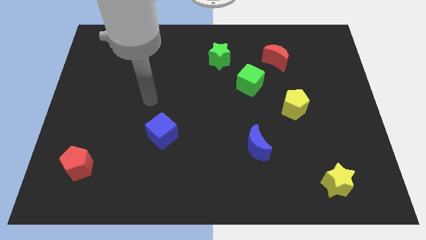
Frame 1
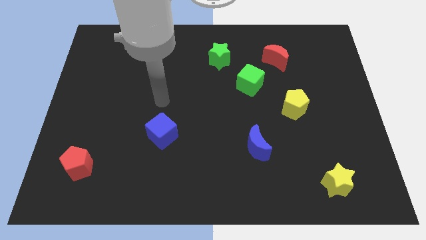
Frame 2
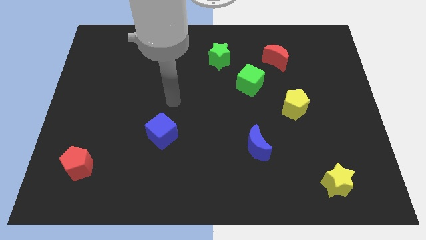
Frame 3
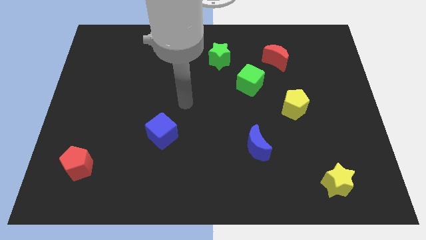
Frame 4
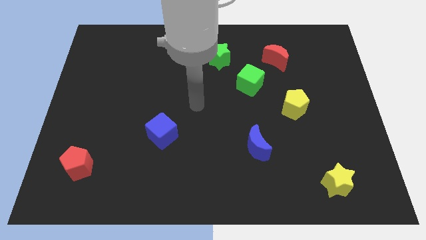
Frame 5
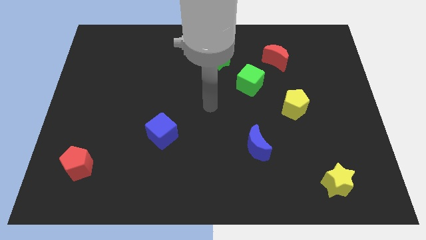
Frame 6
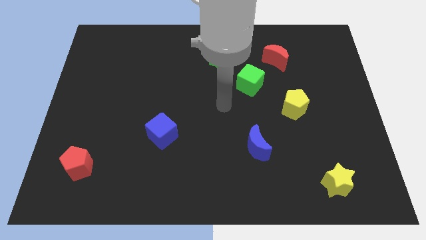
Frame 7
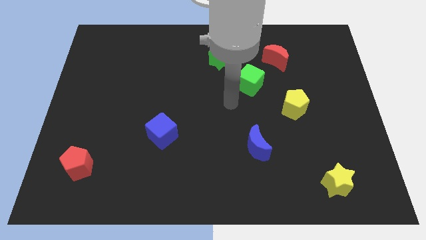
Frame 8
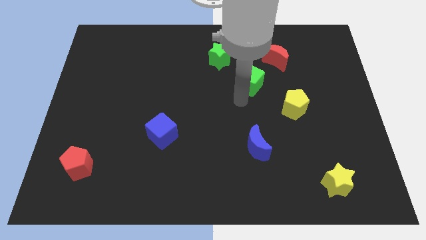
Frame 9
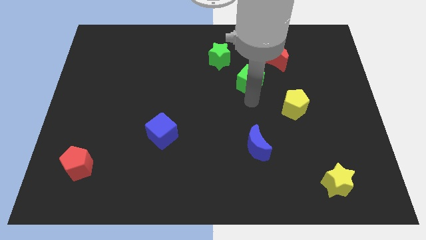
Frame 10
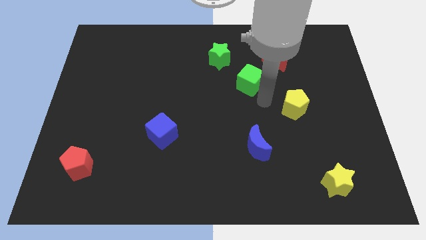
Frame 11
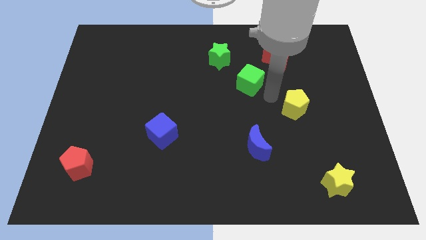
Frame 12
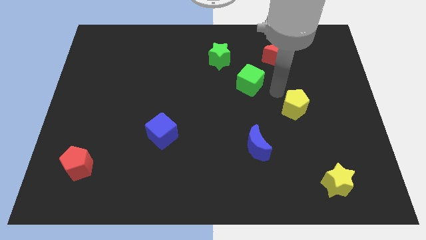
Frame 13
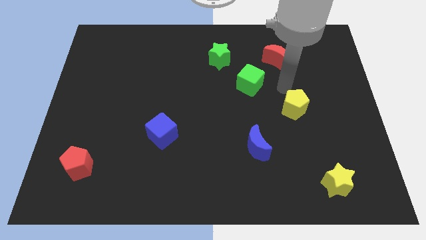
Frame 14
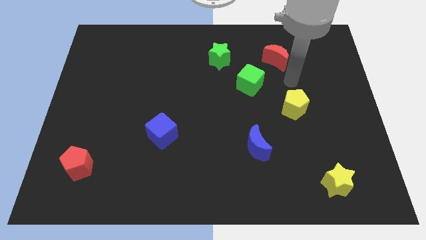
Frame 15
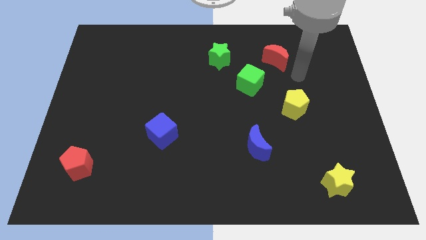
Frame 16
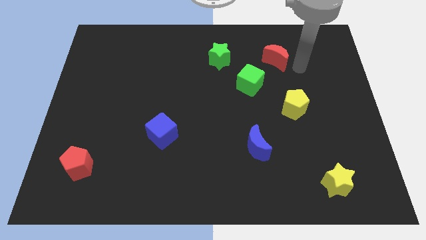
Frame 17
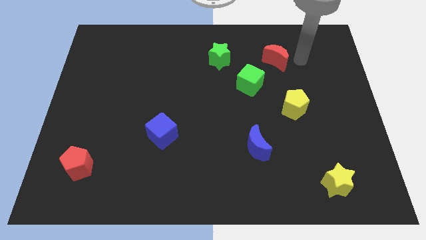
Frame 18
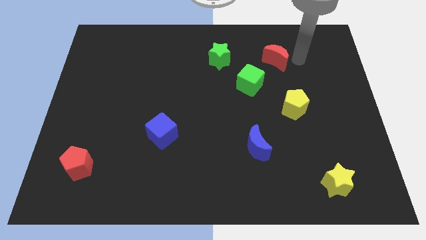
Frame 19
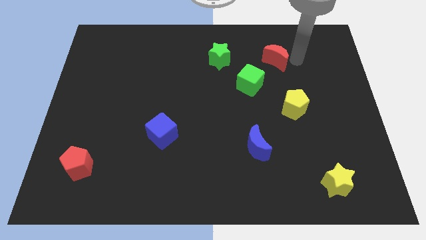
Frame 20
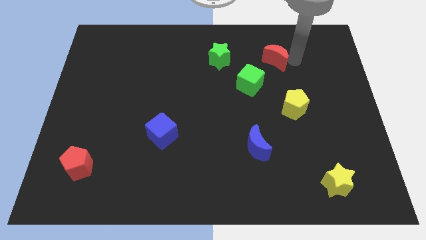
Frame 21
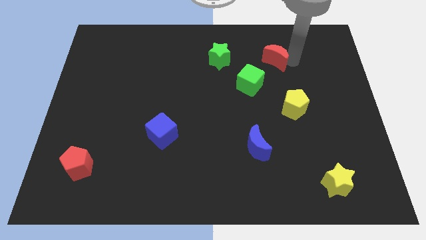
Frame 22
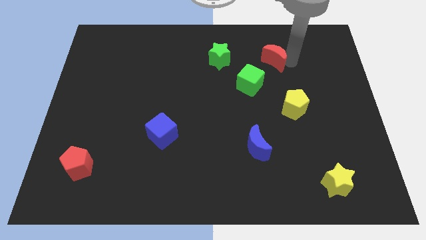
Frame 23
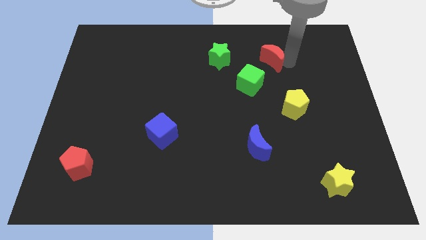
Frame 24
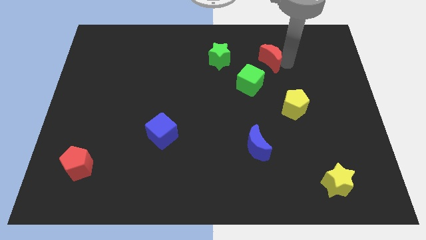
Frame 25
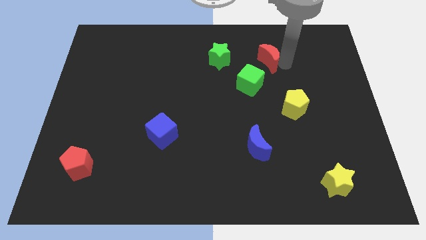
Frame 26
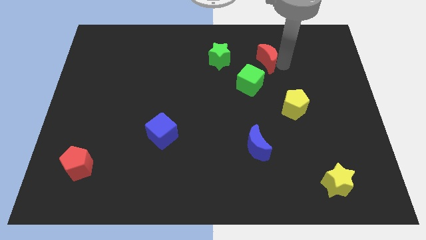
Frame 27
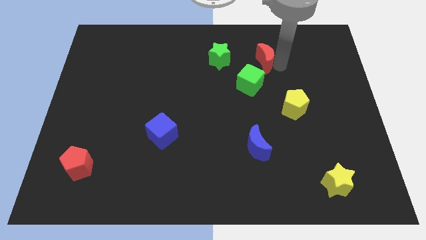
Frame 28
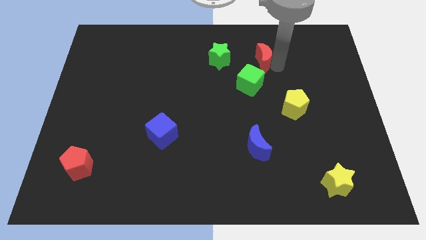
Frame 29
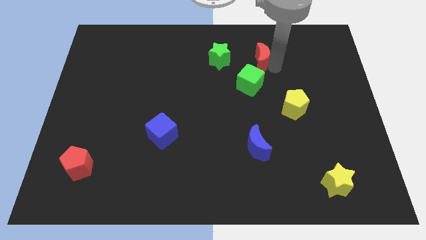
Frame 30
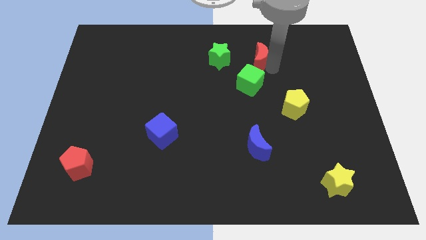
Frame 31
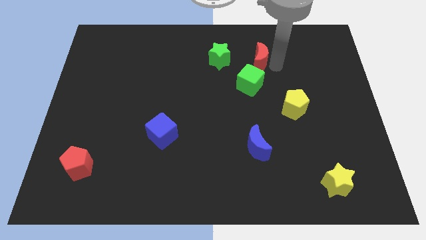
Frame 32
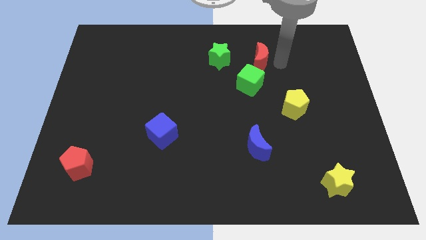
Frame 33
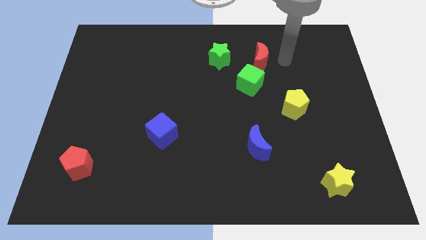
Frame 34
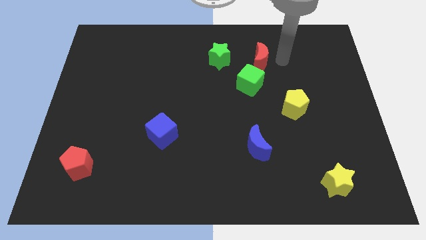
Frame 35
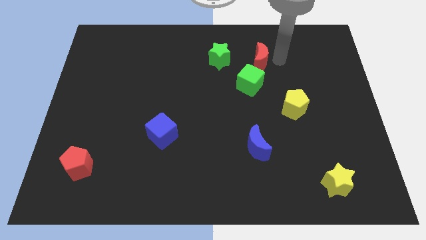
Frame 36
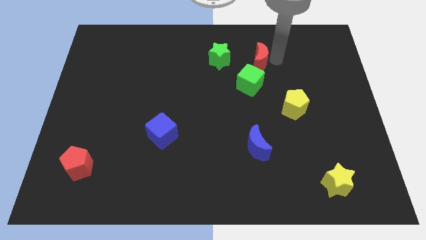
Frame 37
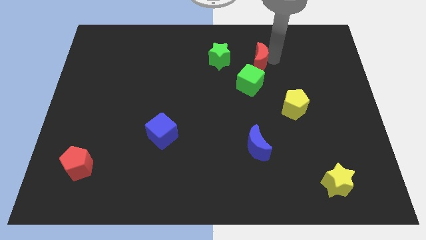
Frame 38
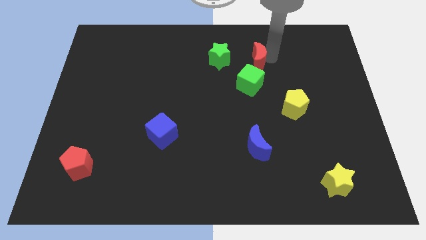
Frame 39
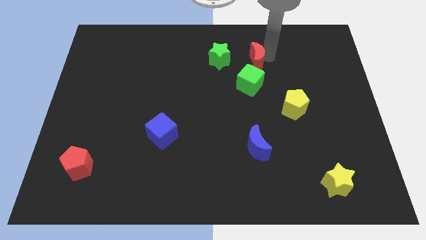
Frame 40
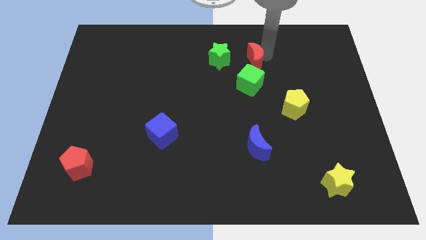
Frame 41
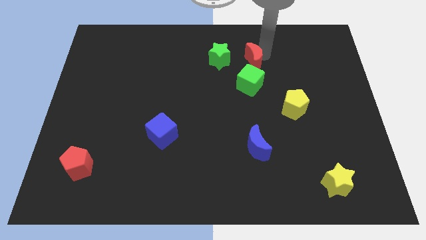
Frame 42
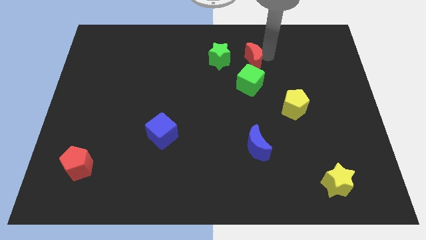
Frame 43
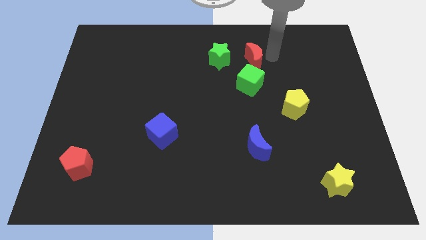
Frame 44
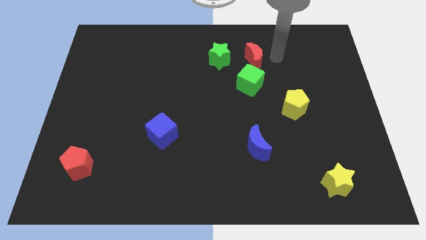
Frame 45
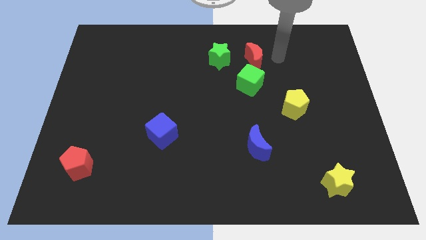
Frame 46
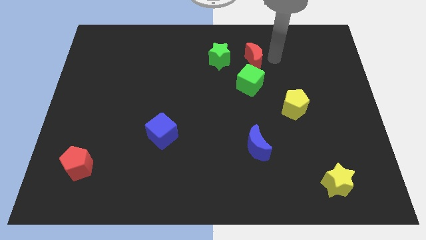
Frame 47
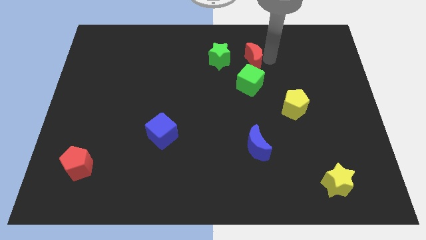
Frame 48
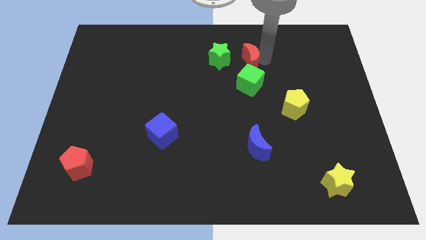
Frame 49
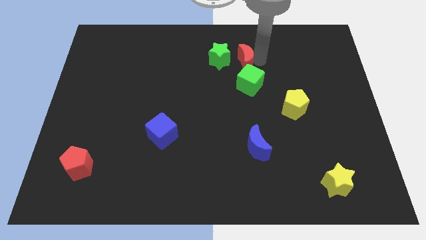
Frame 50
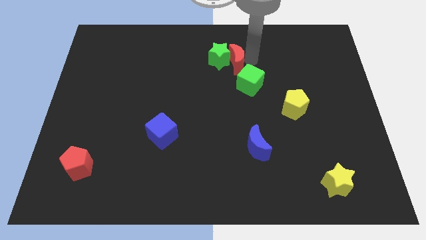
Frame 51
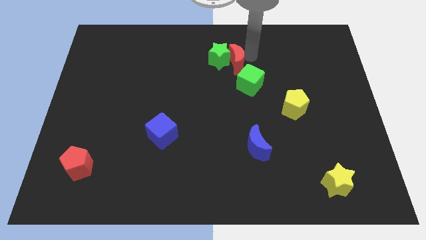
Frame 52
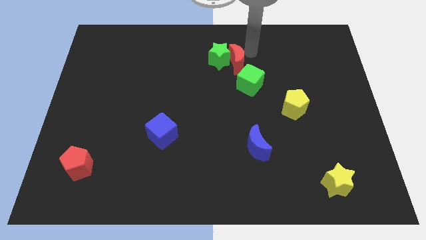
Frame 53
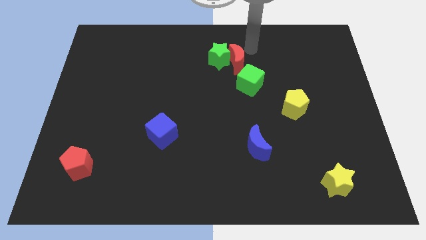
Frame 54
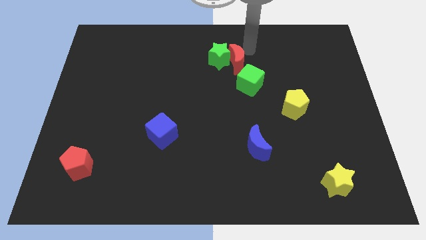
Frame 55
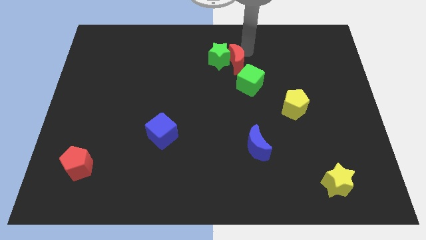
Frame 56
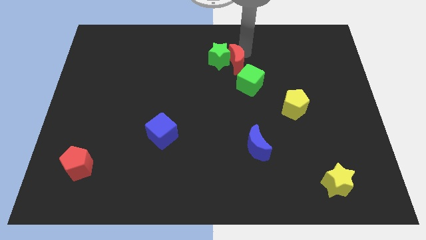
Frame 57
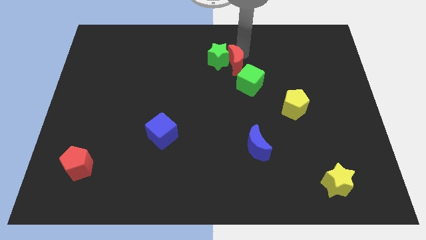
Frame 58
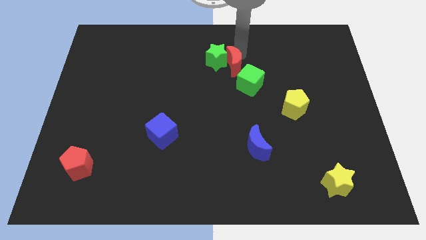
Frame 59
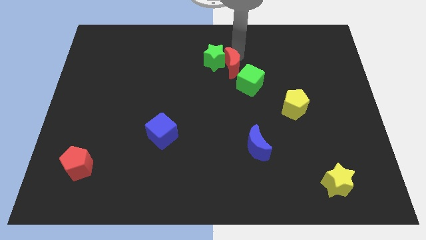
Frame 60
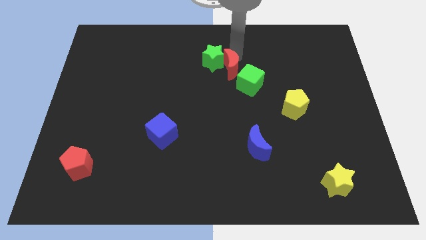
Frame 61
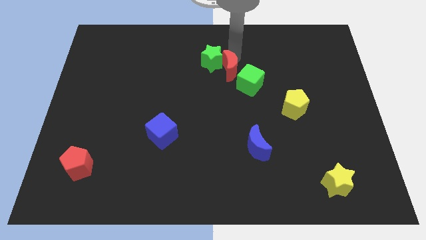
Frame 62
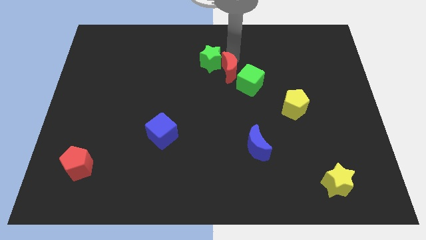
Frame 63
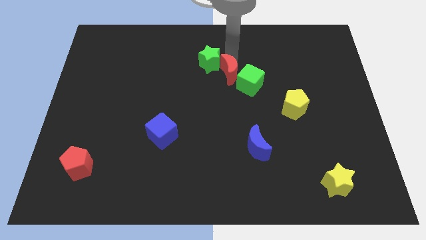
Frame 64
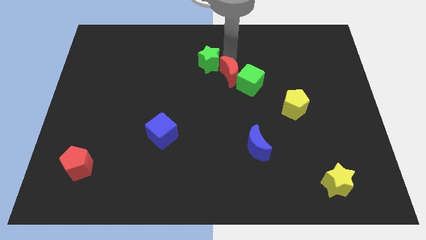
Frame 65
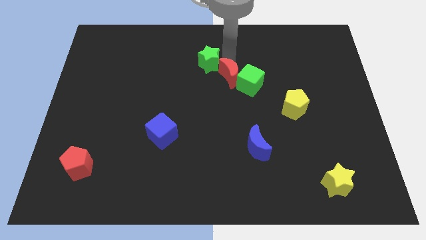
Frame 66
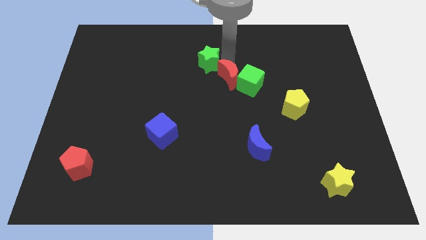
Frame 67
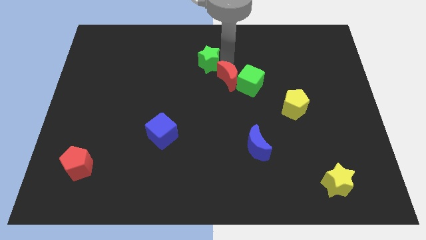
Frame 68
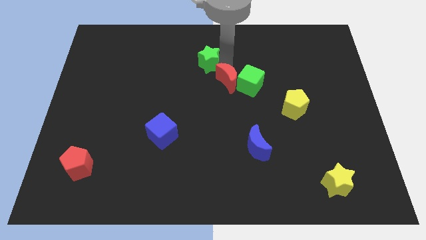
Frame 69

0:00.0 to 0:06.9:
put the red moon diagonally down and to the left of the green cube
